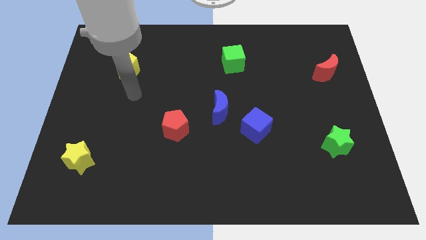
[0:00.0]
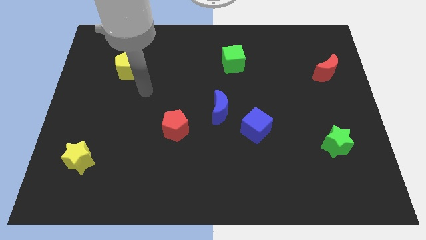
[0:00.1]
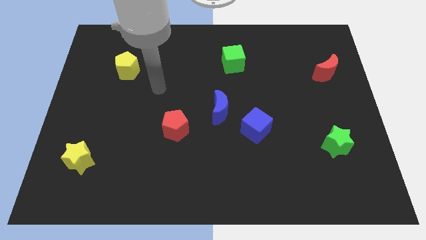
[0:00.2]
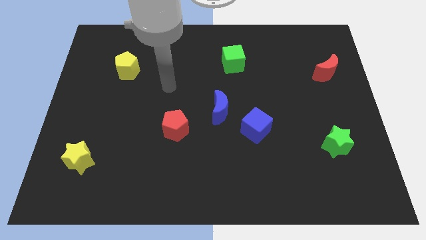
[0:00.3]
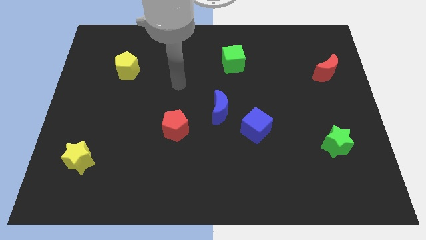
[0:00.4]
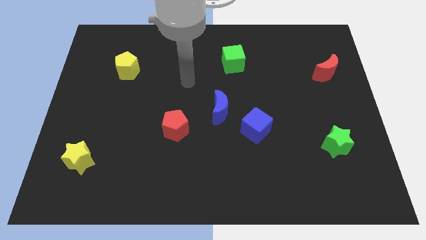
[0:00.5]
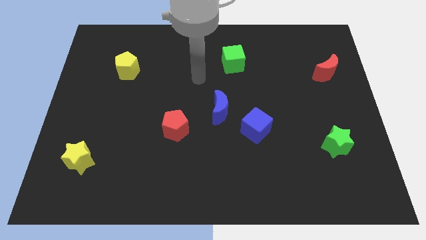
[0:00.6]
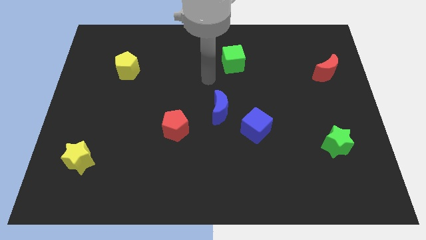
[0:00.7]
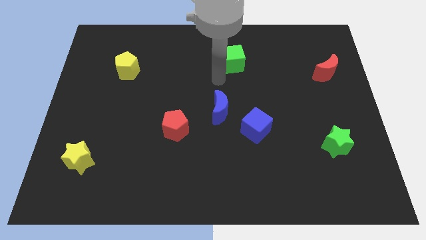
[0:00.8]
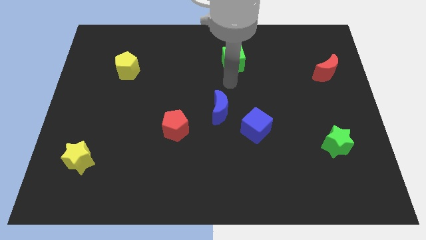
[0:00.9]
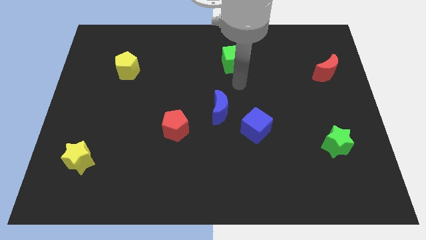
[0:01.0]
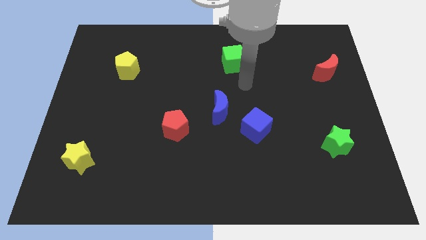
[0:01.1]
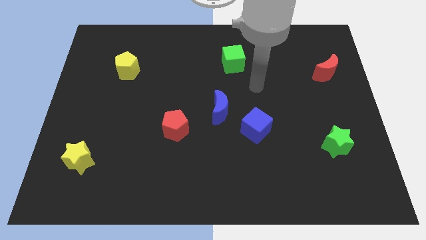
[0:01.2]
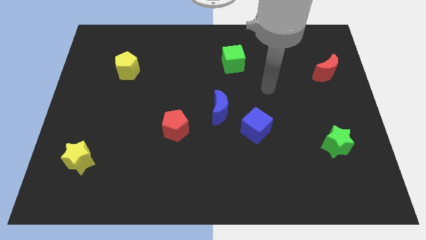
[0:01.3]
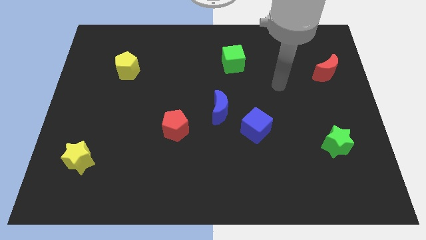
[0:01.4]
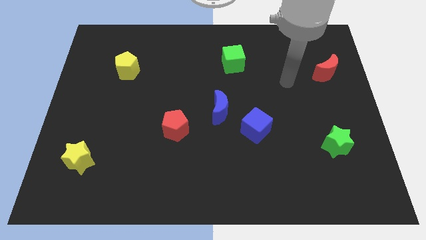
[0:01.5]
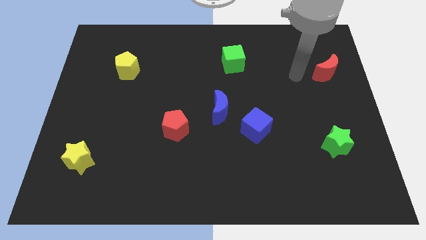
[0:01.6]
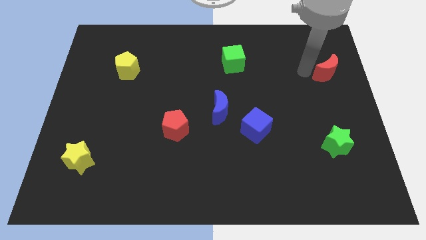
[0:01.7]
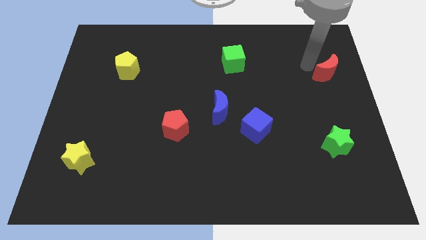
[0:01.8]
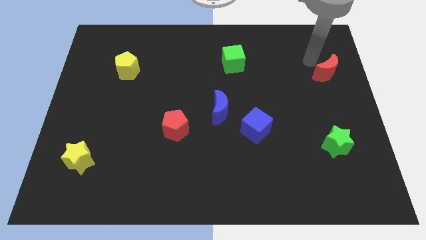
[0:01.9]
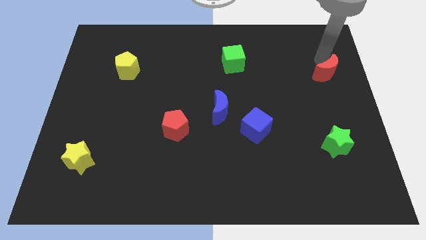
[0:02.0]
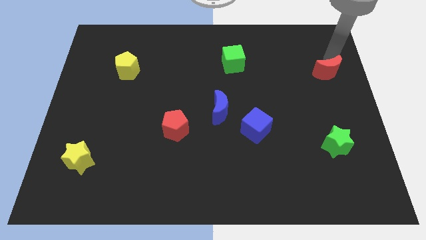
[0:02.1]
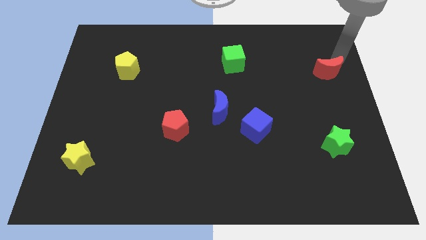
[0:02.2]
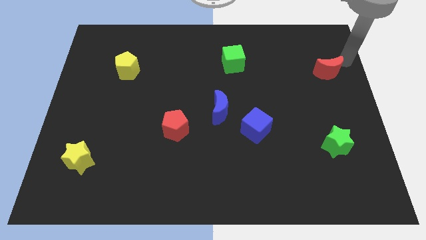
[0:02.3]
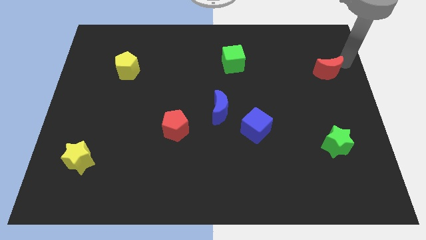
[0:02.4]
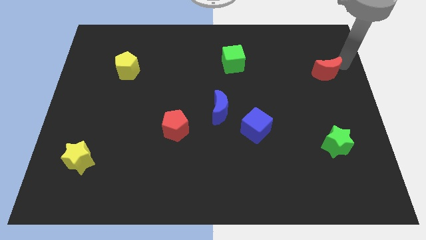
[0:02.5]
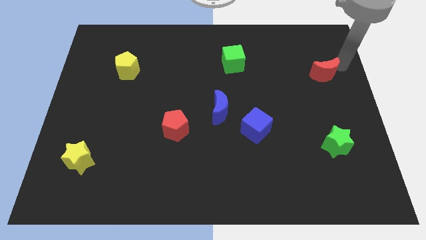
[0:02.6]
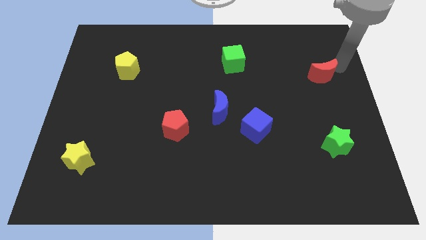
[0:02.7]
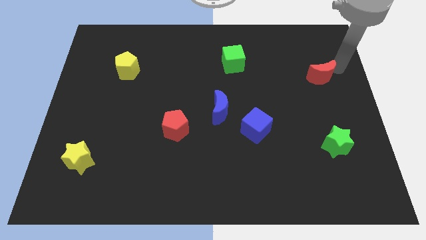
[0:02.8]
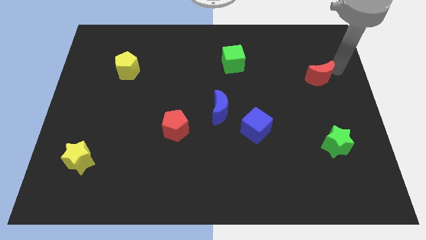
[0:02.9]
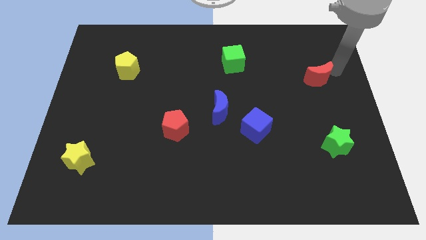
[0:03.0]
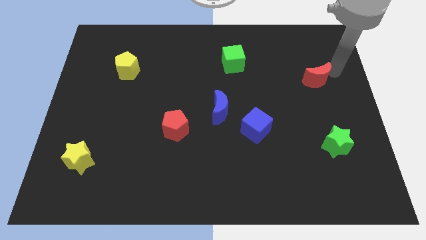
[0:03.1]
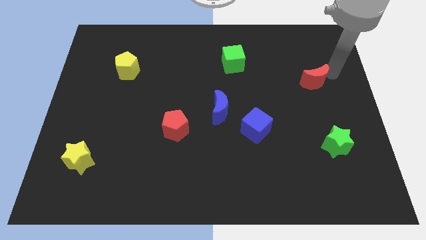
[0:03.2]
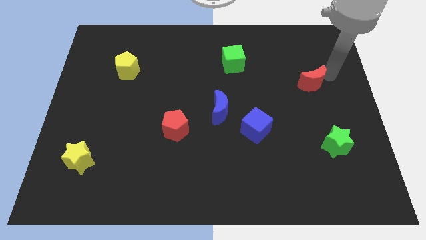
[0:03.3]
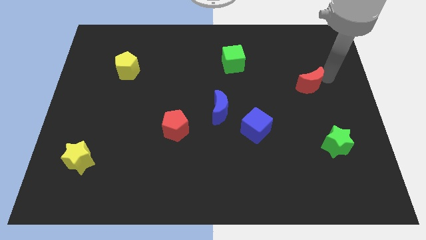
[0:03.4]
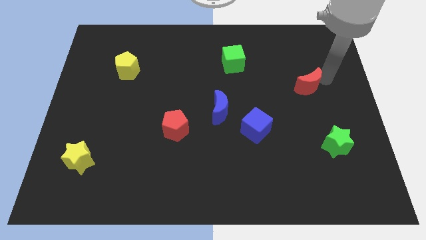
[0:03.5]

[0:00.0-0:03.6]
push the red moon somewhat down and then left

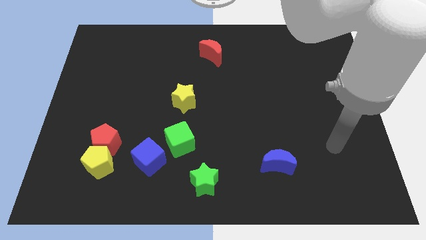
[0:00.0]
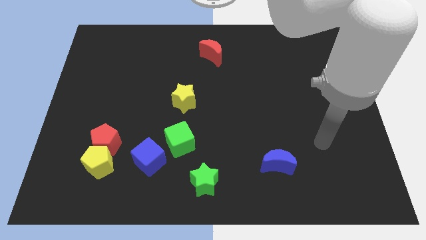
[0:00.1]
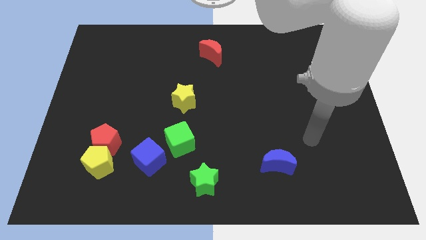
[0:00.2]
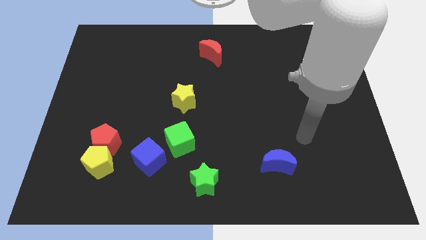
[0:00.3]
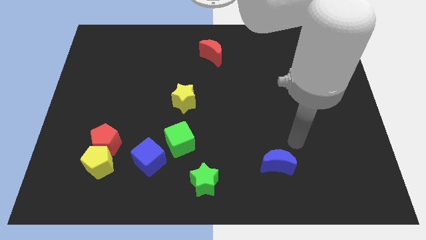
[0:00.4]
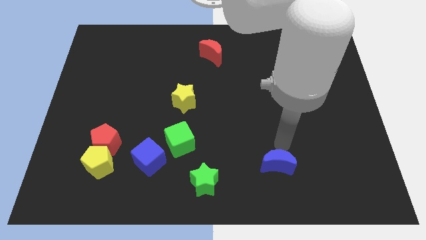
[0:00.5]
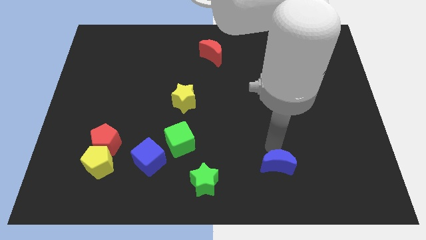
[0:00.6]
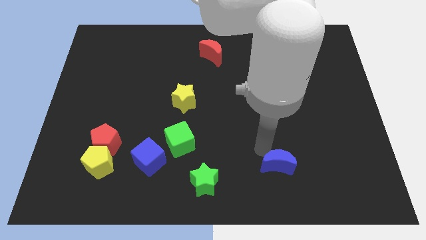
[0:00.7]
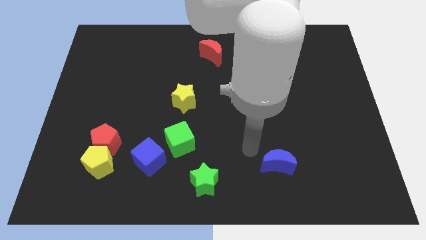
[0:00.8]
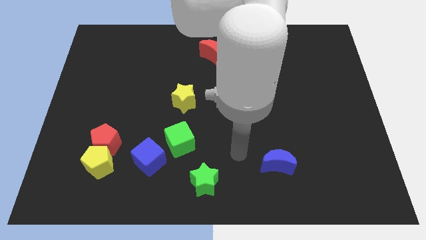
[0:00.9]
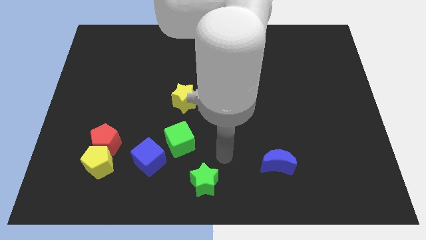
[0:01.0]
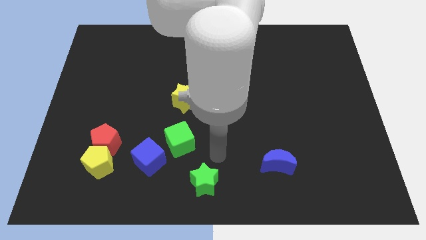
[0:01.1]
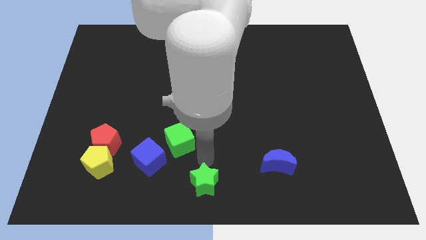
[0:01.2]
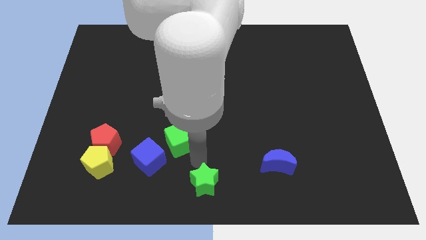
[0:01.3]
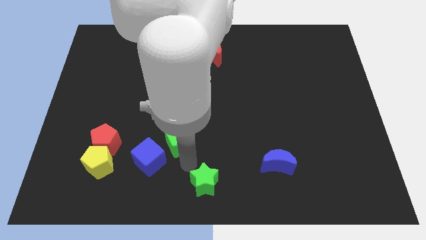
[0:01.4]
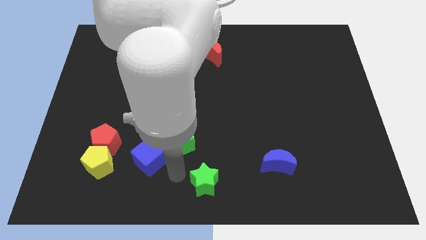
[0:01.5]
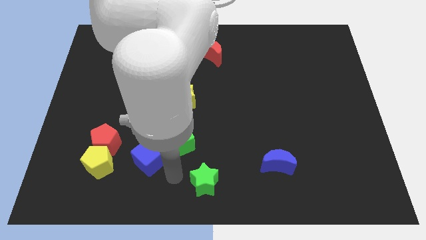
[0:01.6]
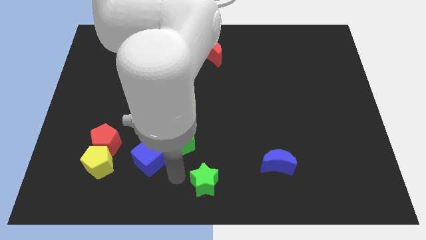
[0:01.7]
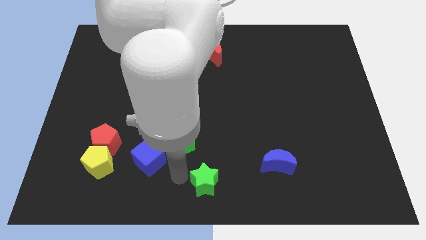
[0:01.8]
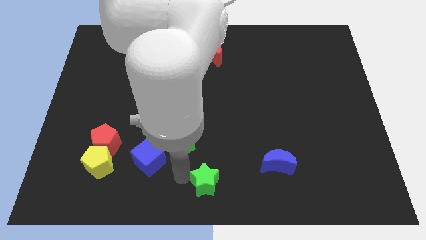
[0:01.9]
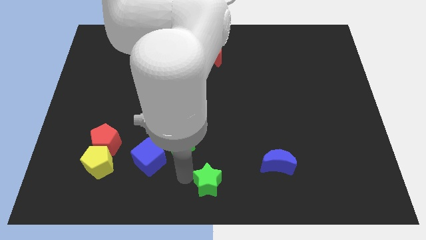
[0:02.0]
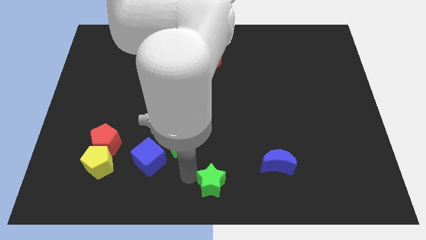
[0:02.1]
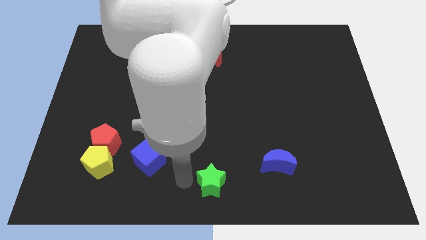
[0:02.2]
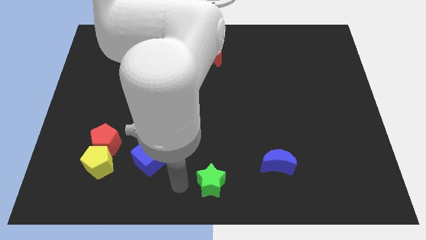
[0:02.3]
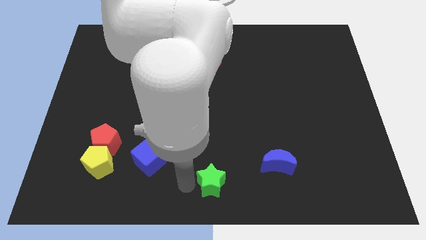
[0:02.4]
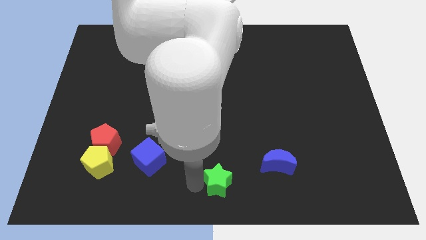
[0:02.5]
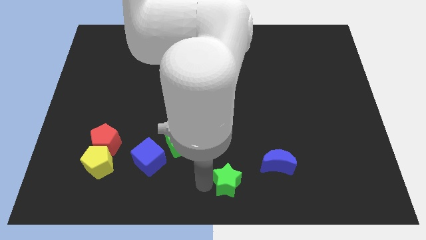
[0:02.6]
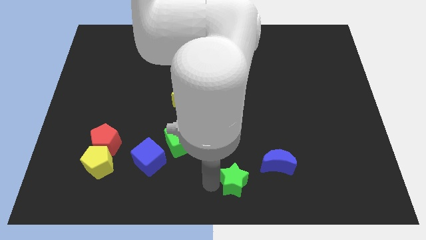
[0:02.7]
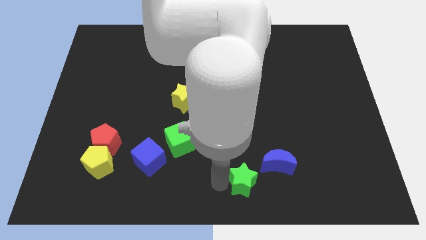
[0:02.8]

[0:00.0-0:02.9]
move the green star a little right

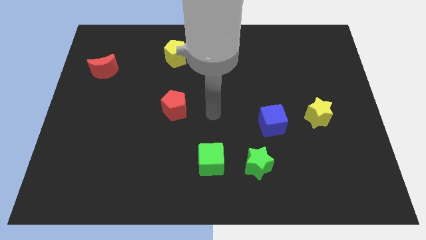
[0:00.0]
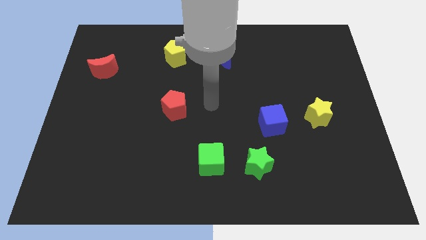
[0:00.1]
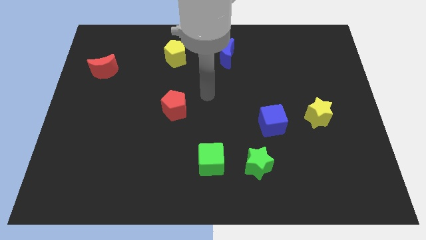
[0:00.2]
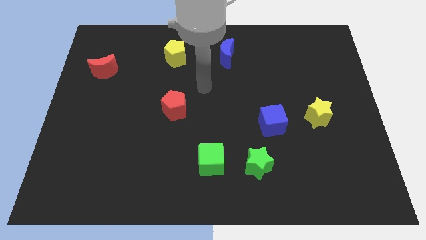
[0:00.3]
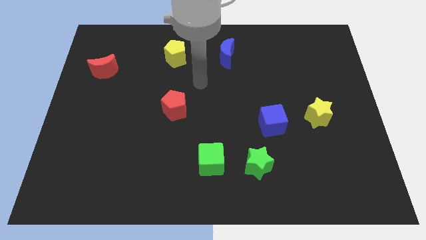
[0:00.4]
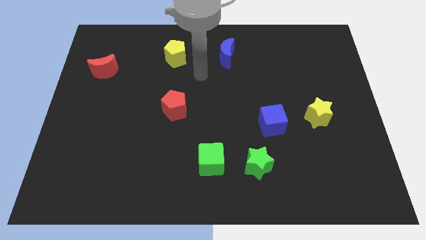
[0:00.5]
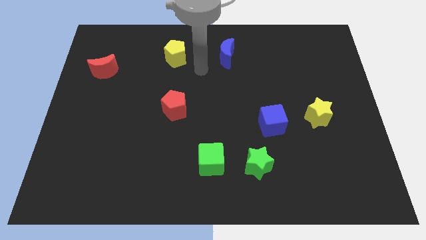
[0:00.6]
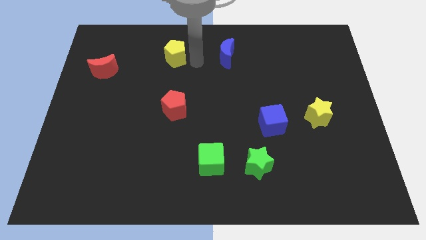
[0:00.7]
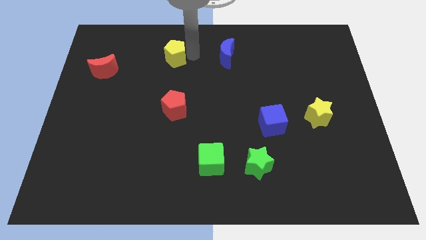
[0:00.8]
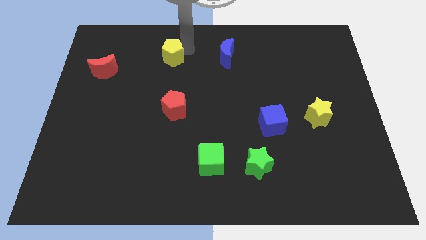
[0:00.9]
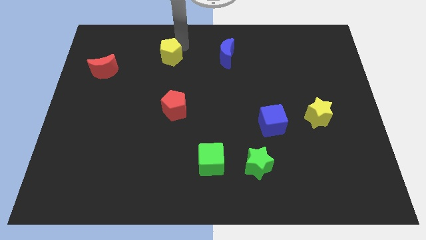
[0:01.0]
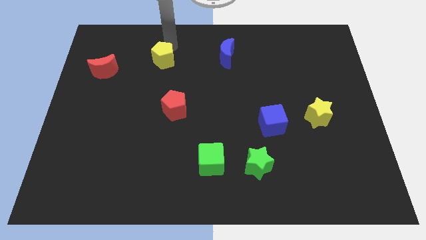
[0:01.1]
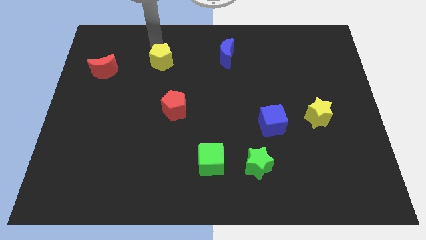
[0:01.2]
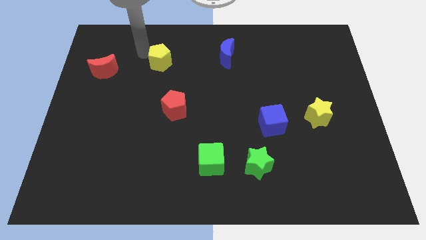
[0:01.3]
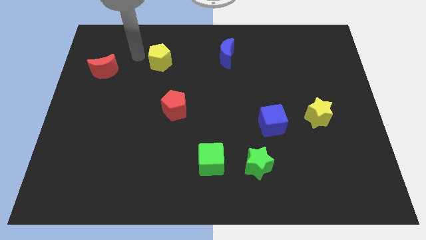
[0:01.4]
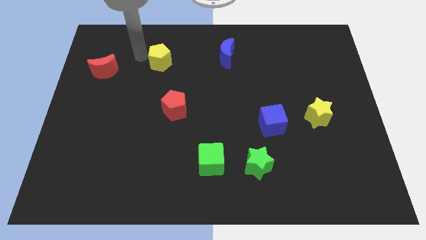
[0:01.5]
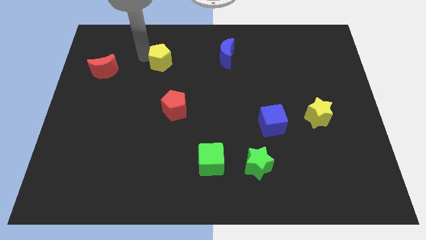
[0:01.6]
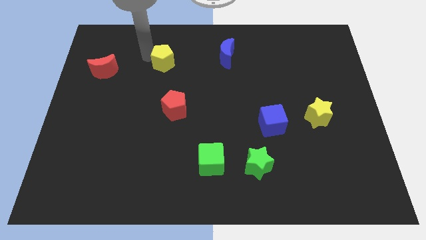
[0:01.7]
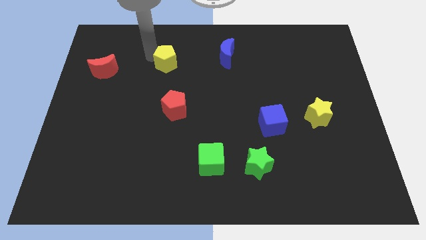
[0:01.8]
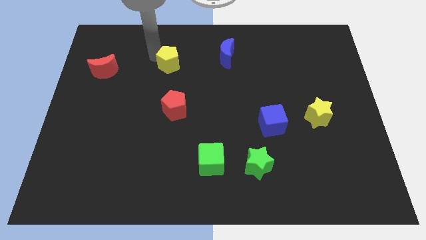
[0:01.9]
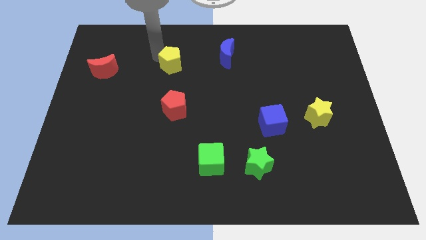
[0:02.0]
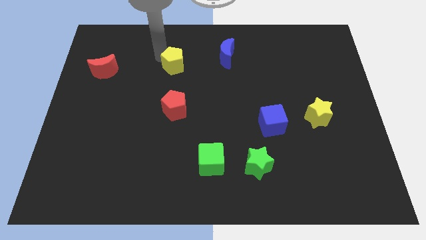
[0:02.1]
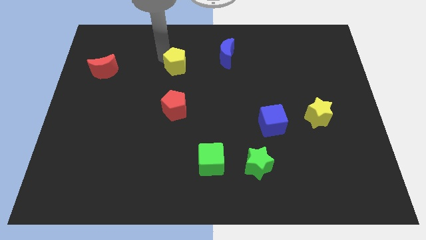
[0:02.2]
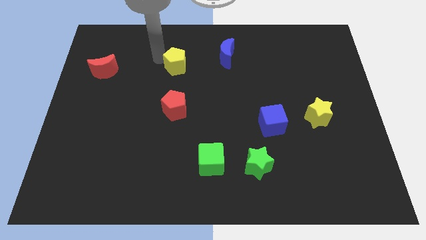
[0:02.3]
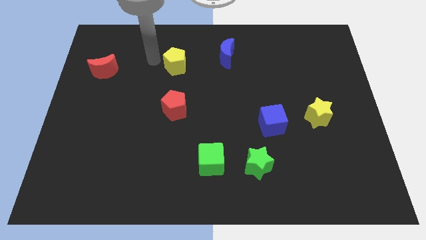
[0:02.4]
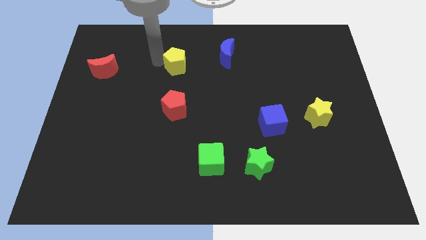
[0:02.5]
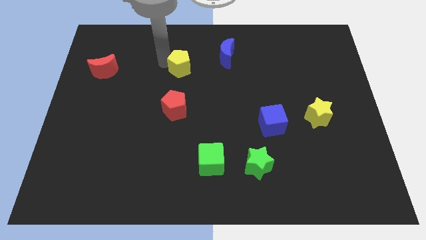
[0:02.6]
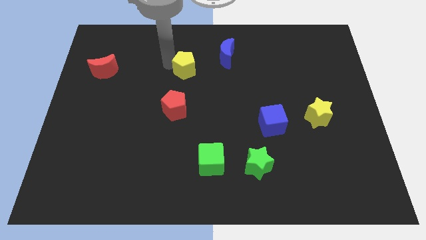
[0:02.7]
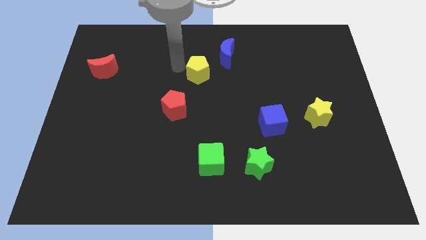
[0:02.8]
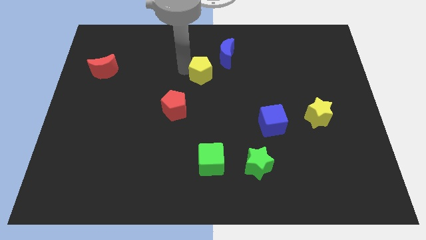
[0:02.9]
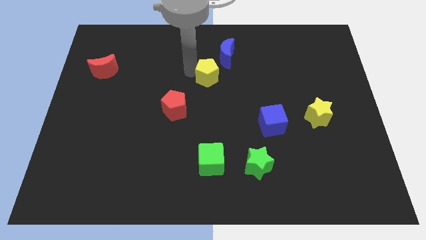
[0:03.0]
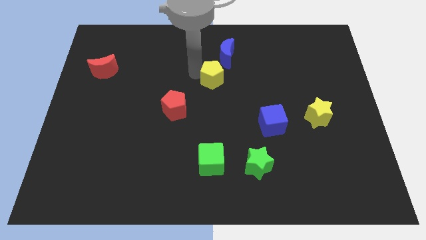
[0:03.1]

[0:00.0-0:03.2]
move the yellow pentagon to the right a bit
